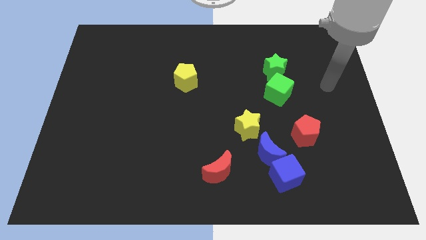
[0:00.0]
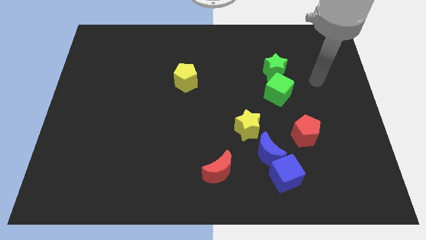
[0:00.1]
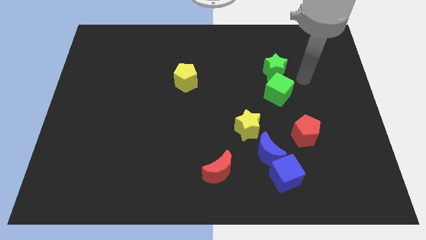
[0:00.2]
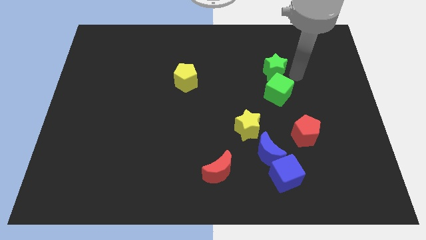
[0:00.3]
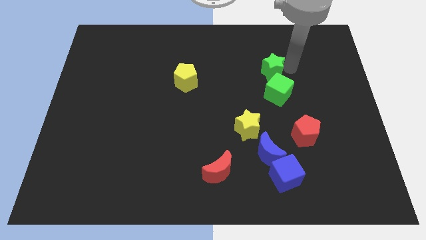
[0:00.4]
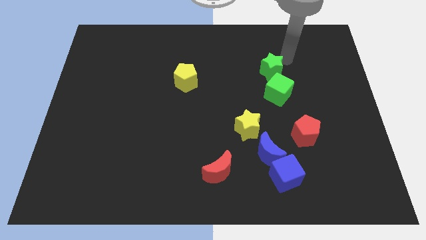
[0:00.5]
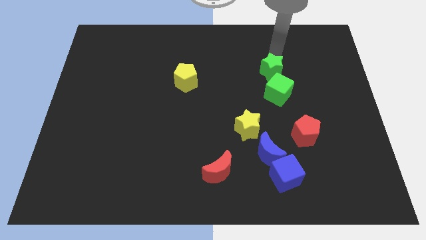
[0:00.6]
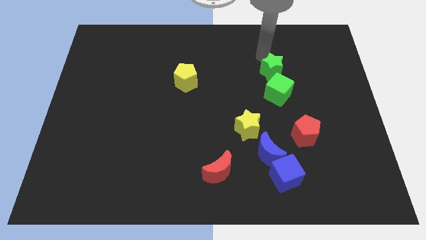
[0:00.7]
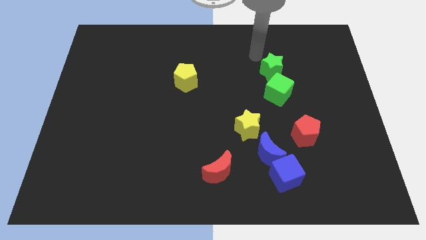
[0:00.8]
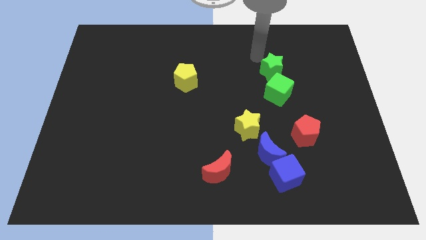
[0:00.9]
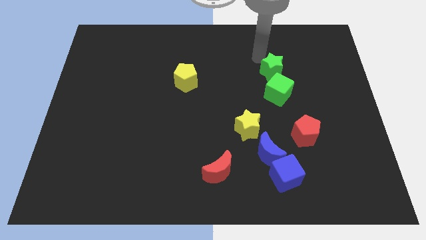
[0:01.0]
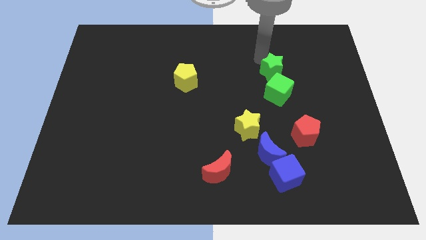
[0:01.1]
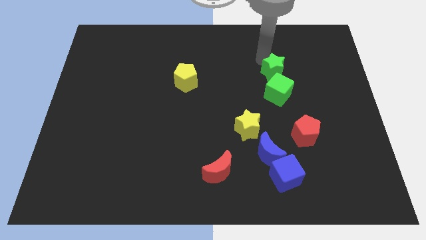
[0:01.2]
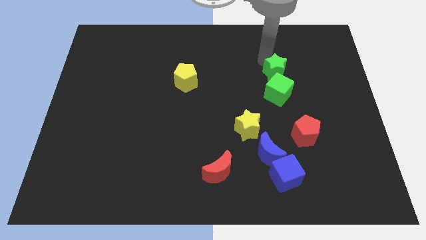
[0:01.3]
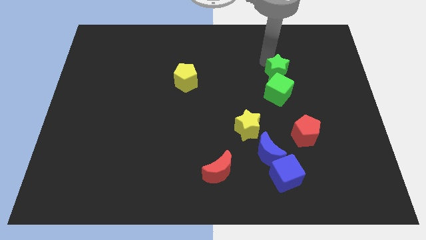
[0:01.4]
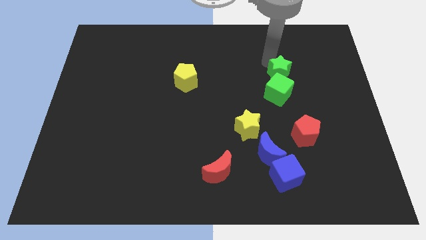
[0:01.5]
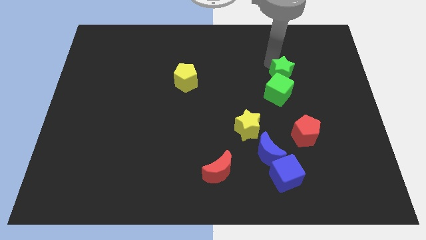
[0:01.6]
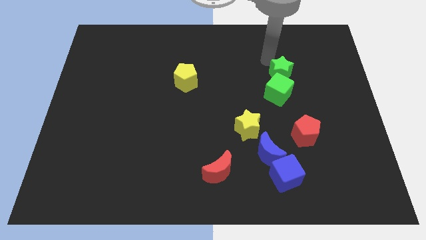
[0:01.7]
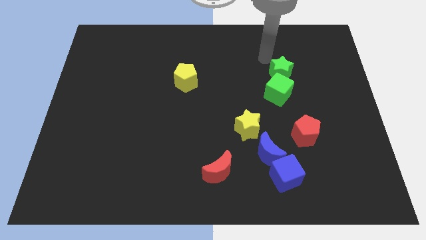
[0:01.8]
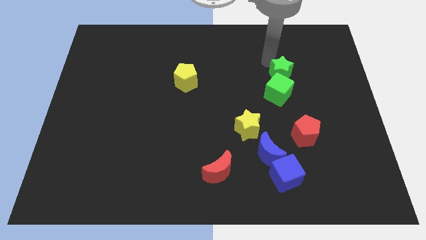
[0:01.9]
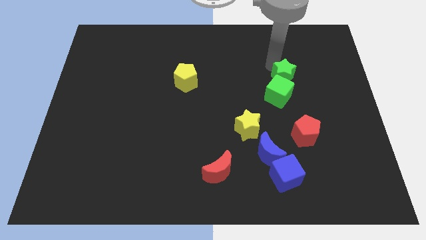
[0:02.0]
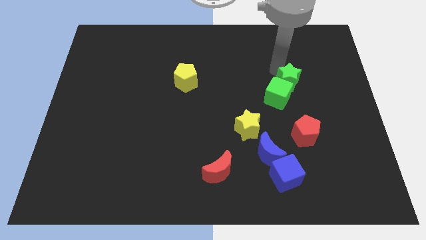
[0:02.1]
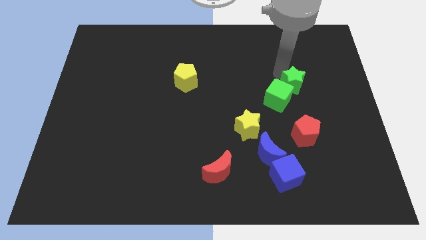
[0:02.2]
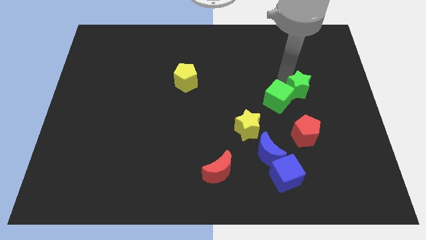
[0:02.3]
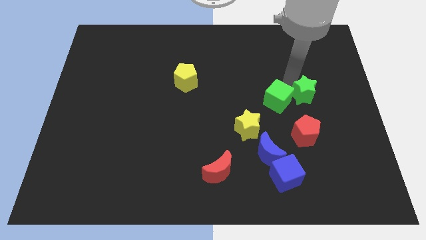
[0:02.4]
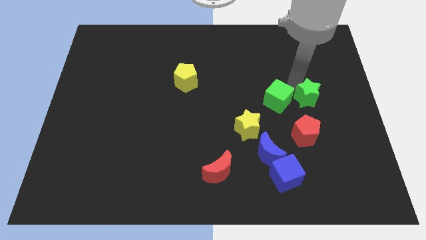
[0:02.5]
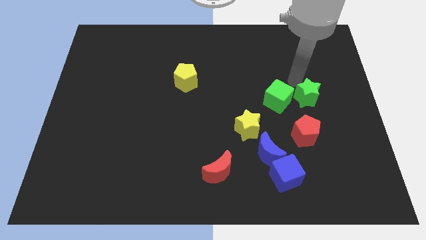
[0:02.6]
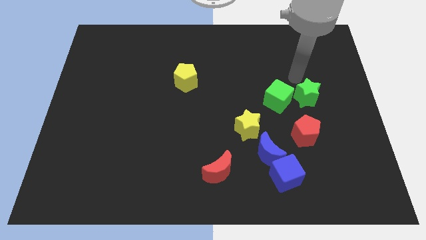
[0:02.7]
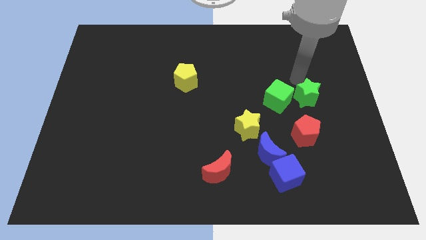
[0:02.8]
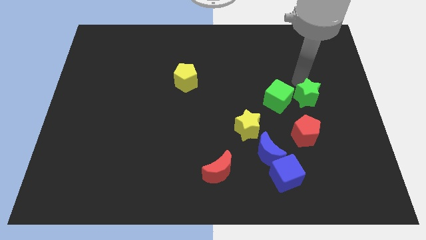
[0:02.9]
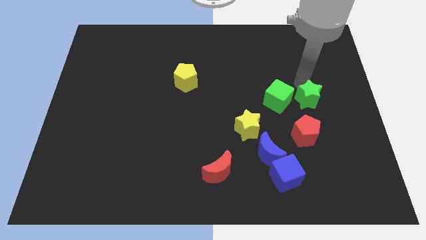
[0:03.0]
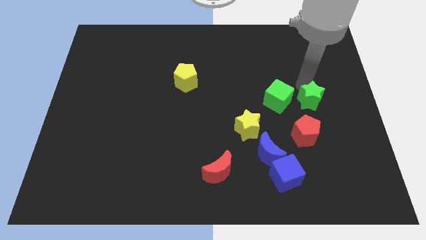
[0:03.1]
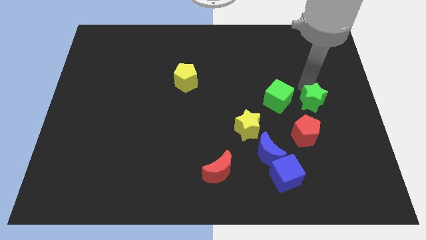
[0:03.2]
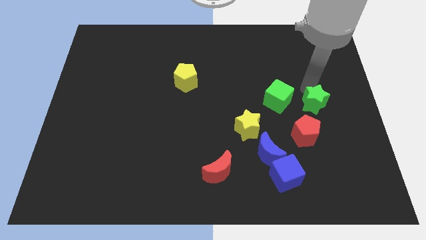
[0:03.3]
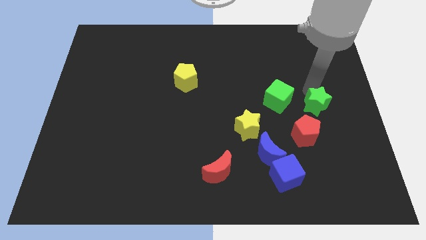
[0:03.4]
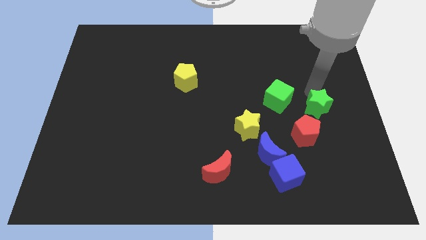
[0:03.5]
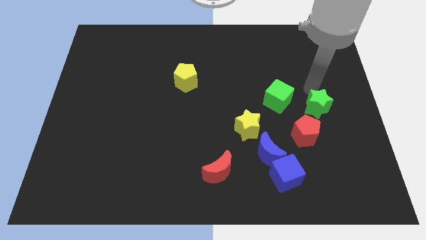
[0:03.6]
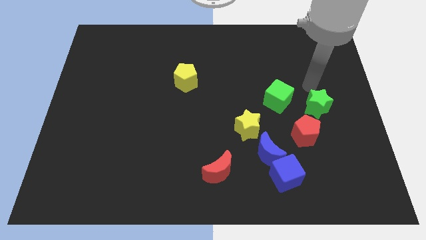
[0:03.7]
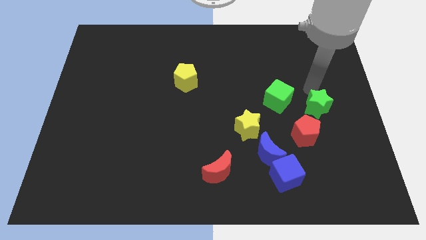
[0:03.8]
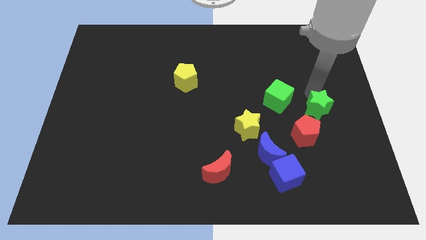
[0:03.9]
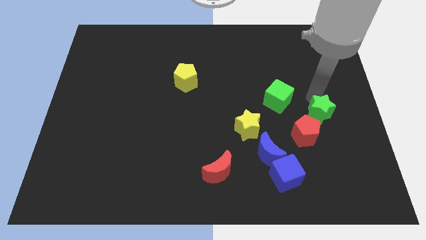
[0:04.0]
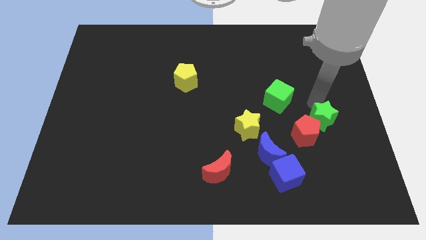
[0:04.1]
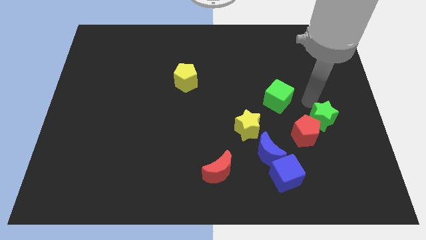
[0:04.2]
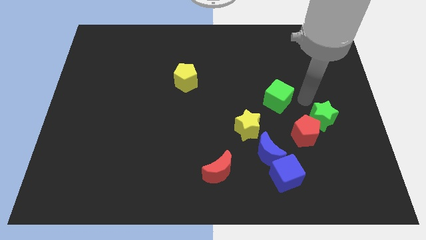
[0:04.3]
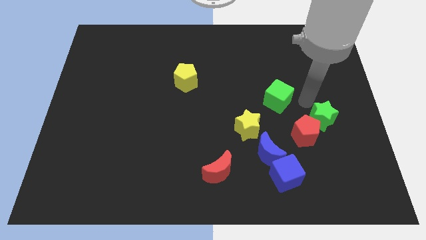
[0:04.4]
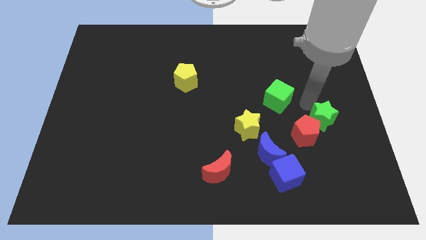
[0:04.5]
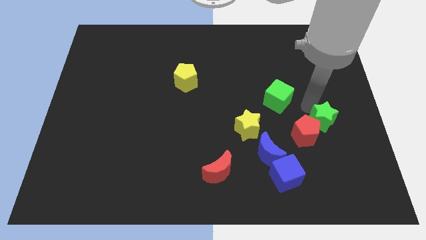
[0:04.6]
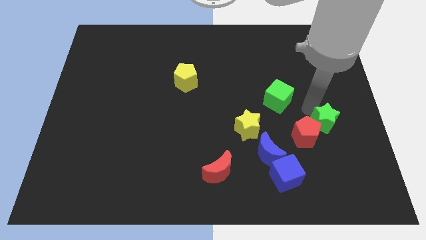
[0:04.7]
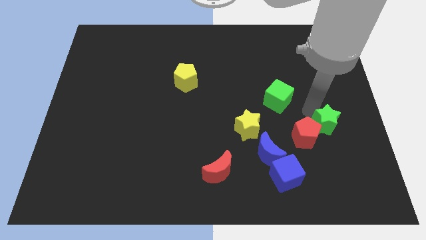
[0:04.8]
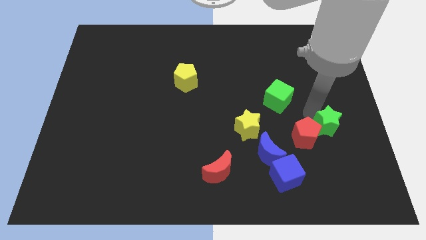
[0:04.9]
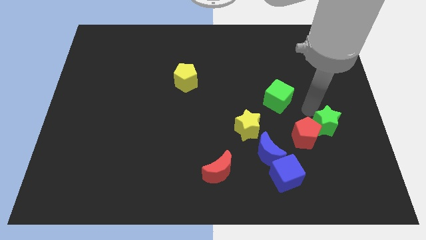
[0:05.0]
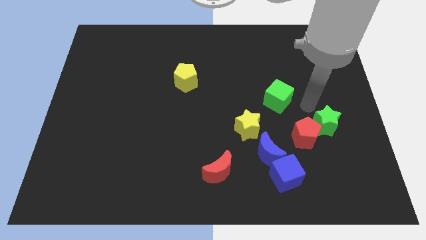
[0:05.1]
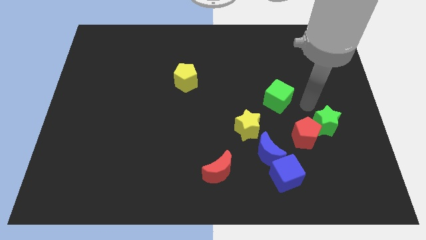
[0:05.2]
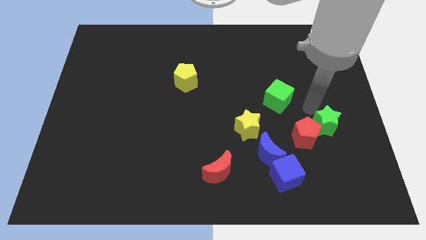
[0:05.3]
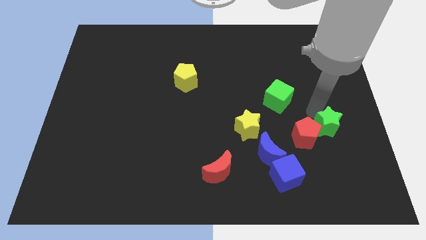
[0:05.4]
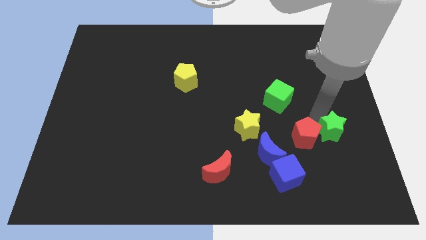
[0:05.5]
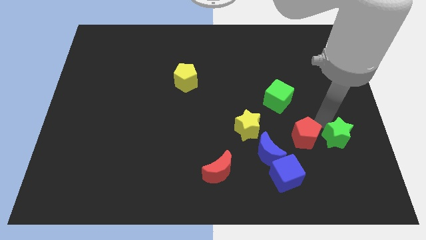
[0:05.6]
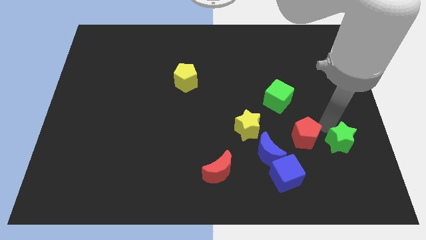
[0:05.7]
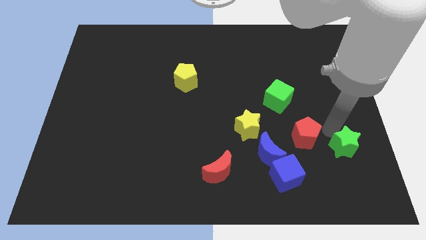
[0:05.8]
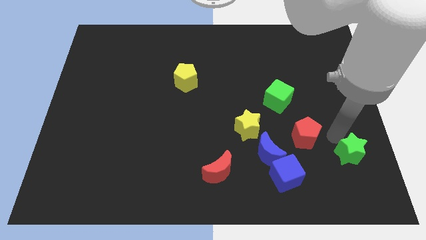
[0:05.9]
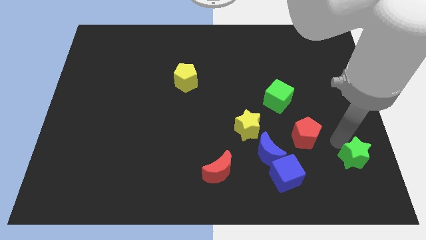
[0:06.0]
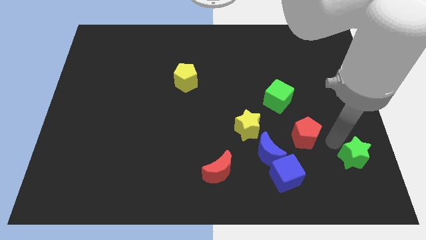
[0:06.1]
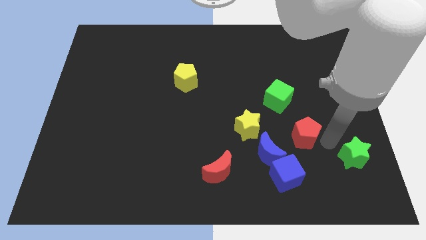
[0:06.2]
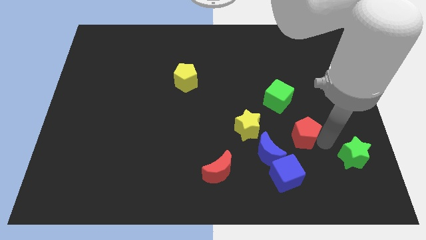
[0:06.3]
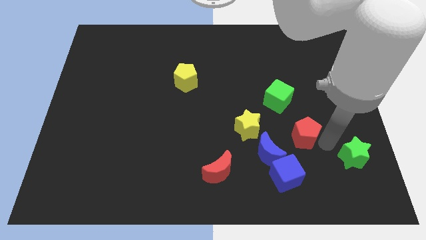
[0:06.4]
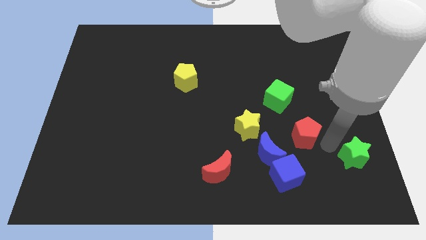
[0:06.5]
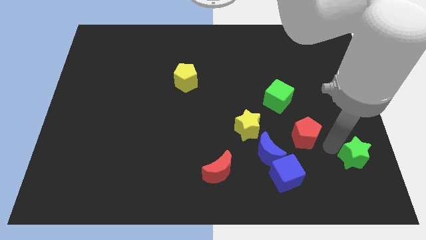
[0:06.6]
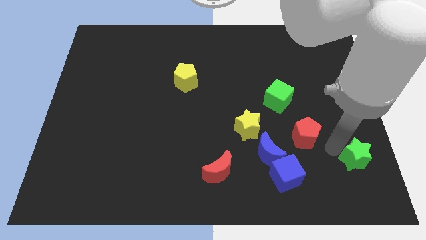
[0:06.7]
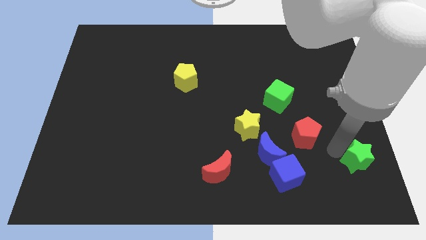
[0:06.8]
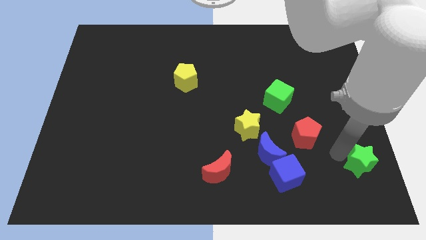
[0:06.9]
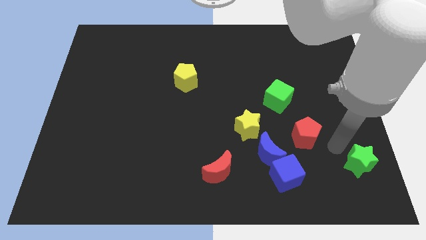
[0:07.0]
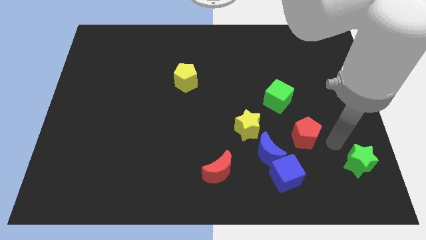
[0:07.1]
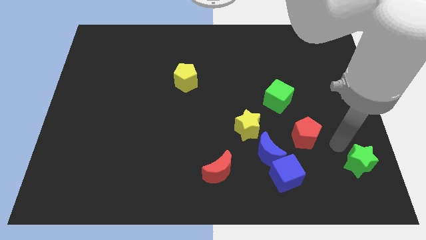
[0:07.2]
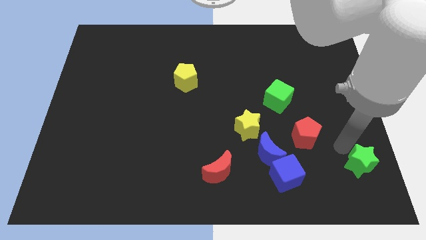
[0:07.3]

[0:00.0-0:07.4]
put the green star to the lower right corner
